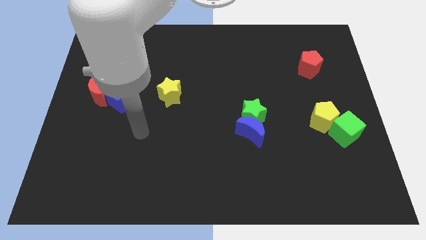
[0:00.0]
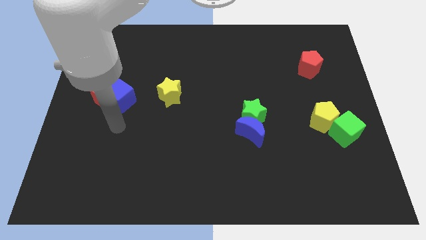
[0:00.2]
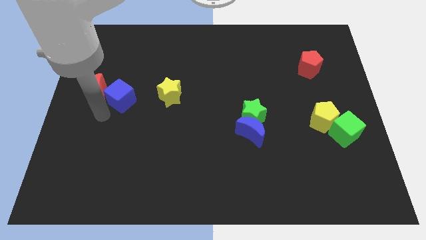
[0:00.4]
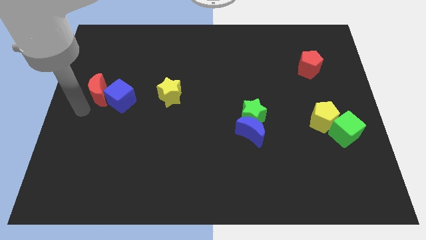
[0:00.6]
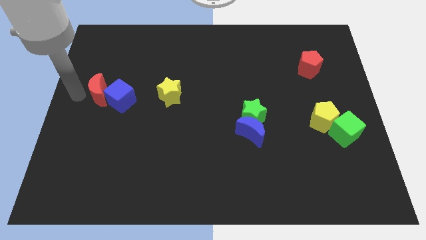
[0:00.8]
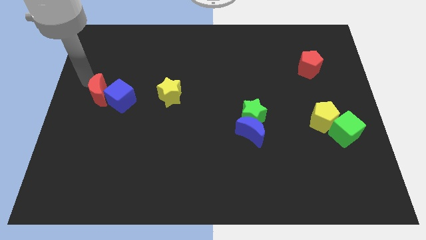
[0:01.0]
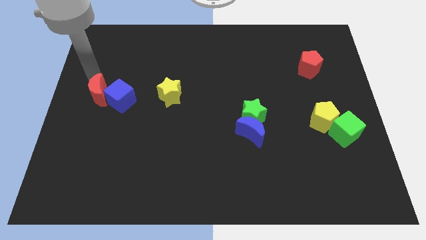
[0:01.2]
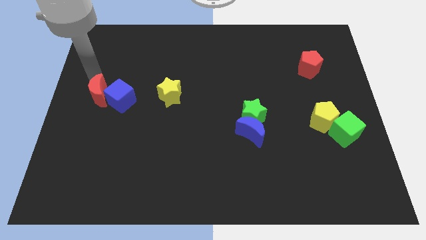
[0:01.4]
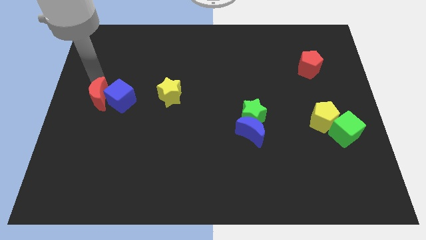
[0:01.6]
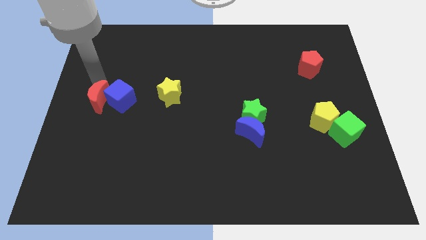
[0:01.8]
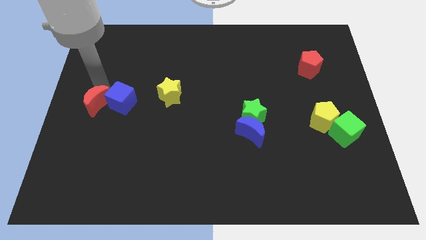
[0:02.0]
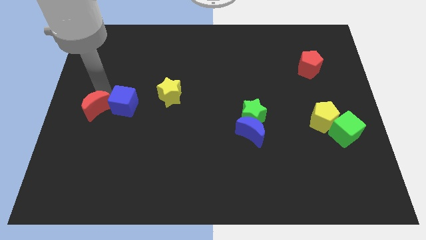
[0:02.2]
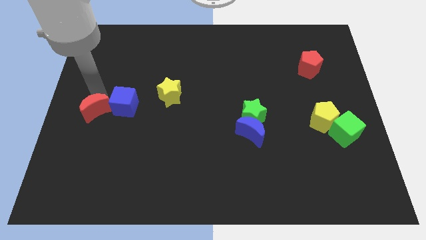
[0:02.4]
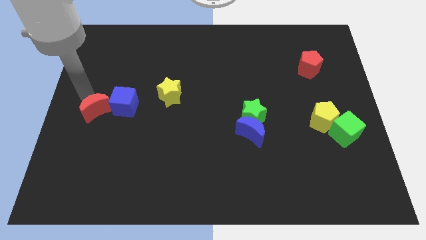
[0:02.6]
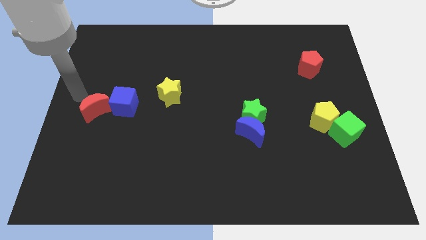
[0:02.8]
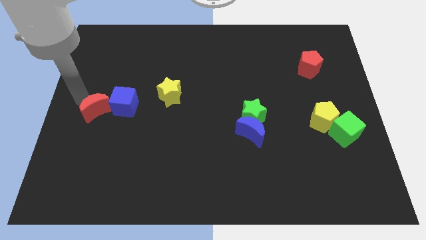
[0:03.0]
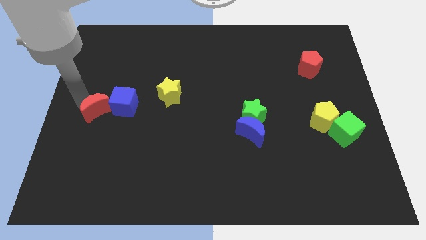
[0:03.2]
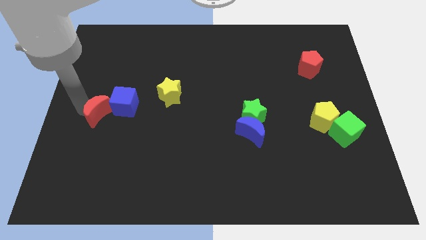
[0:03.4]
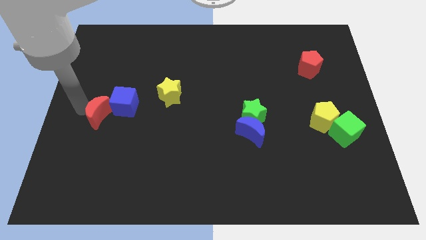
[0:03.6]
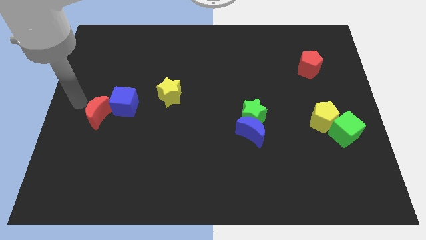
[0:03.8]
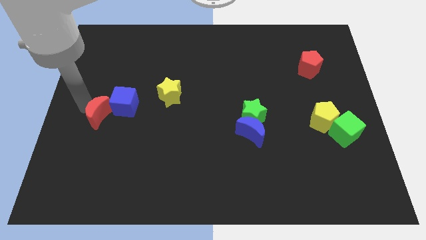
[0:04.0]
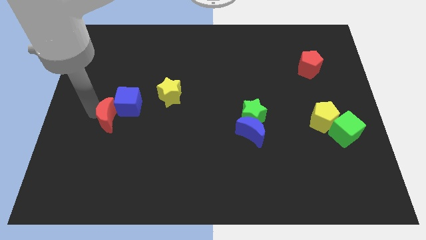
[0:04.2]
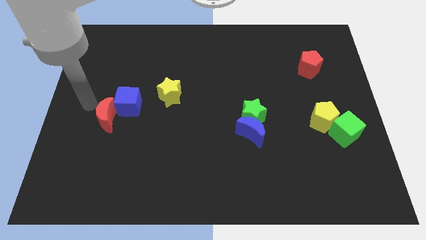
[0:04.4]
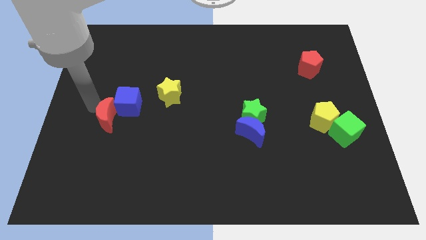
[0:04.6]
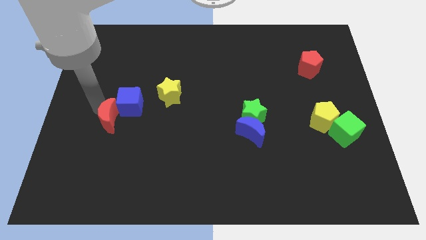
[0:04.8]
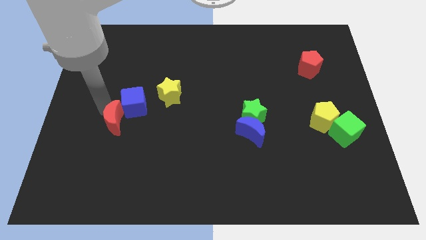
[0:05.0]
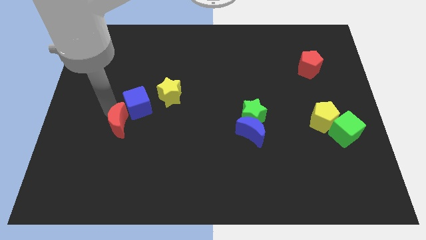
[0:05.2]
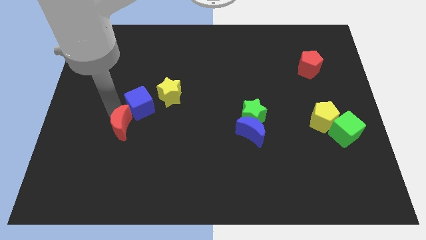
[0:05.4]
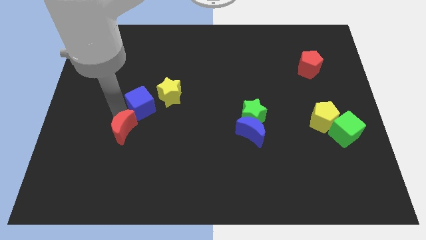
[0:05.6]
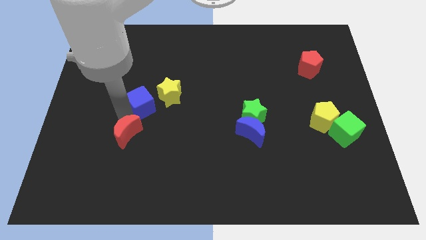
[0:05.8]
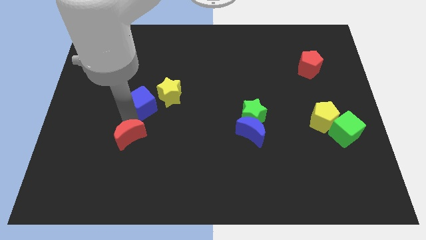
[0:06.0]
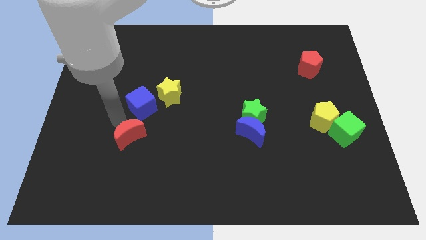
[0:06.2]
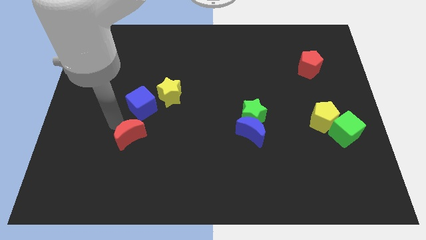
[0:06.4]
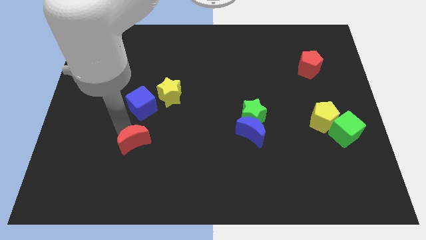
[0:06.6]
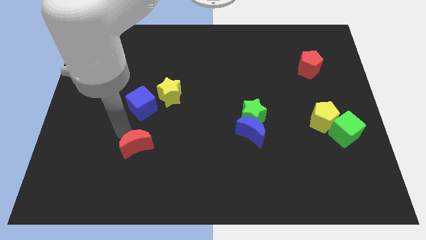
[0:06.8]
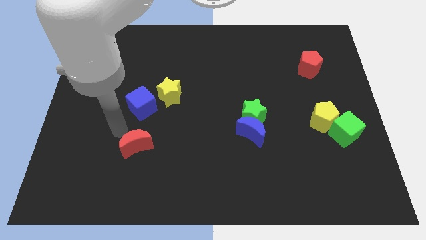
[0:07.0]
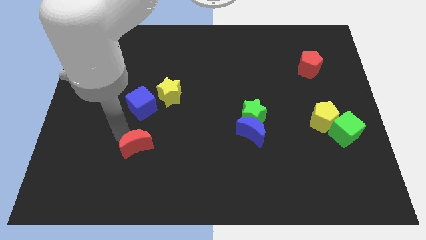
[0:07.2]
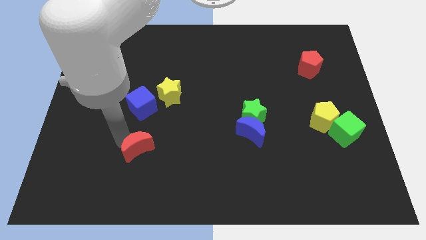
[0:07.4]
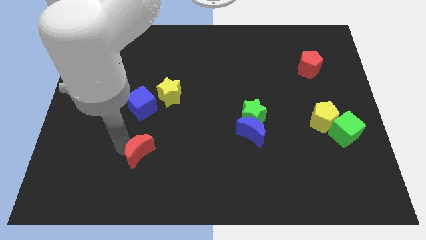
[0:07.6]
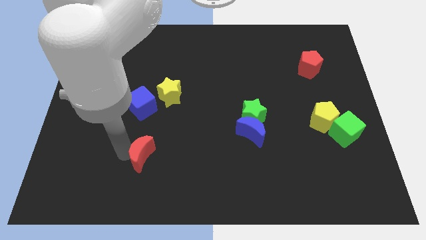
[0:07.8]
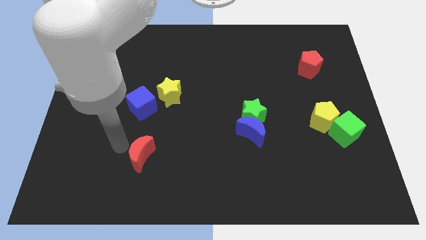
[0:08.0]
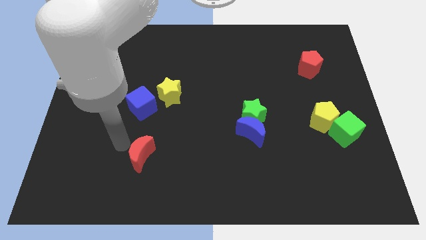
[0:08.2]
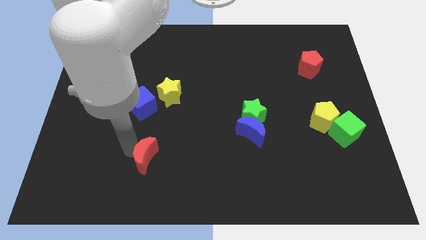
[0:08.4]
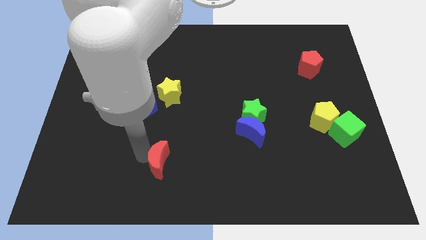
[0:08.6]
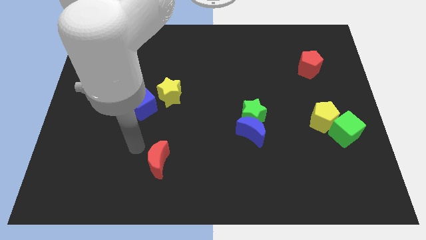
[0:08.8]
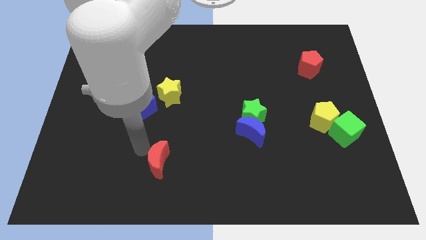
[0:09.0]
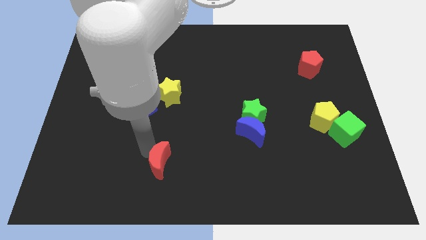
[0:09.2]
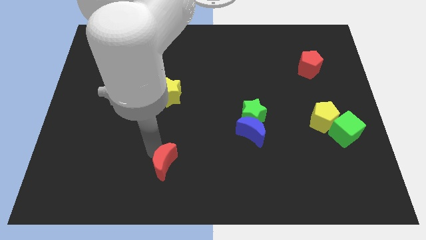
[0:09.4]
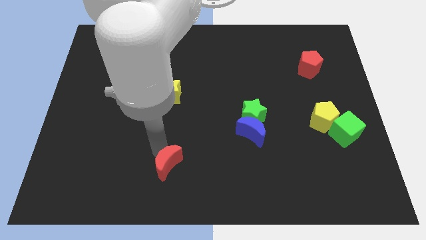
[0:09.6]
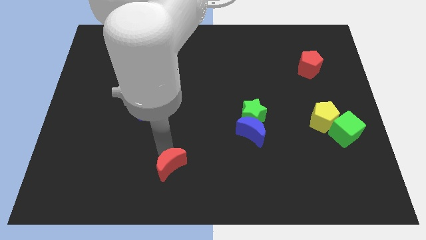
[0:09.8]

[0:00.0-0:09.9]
slide the red moon to the bottom
